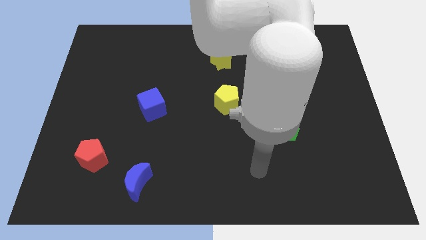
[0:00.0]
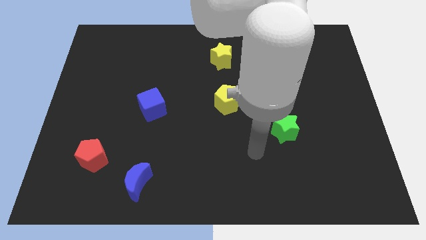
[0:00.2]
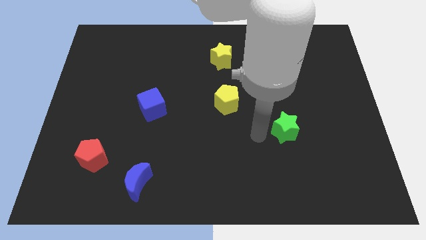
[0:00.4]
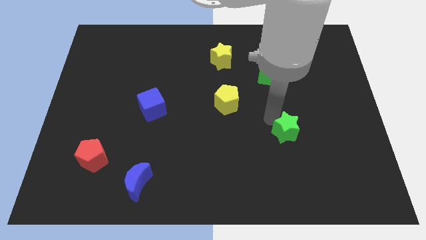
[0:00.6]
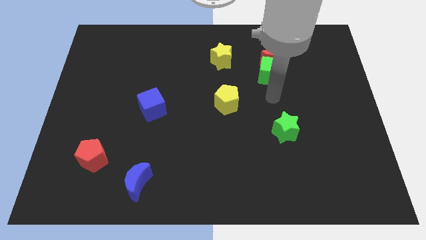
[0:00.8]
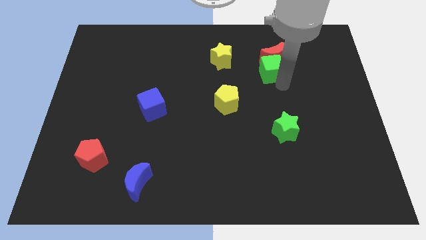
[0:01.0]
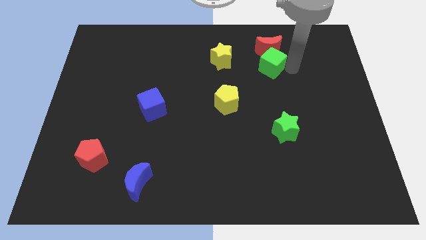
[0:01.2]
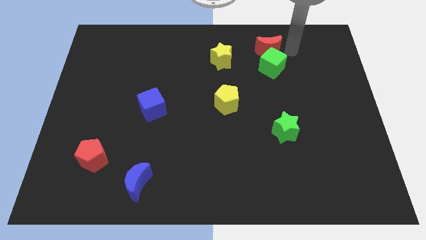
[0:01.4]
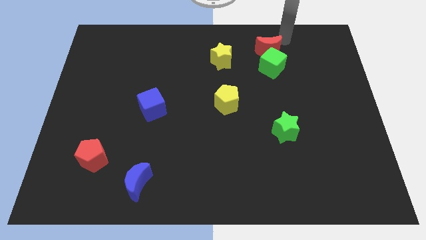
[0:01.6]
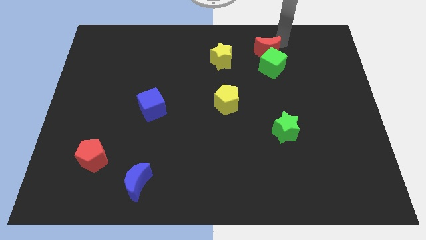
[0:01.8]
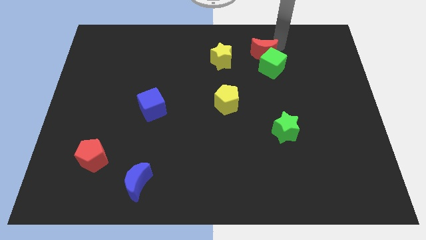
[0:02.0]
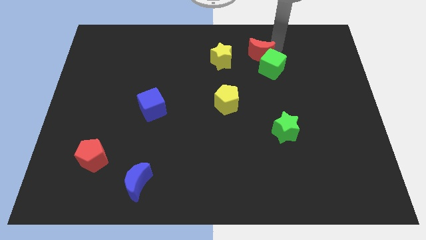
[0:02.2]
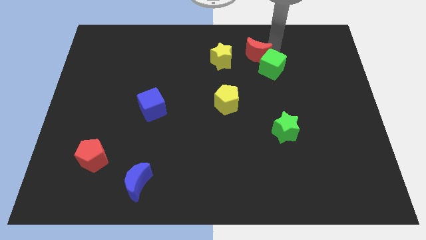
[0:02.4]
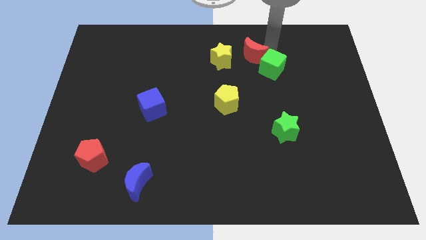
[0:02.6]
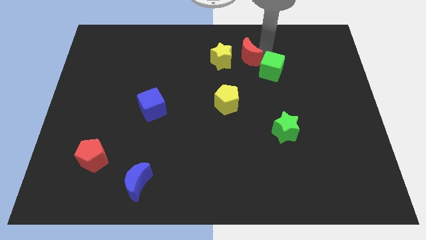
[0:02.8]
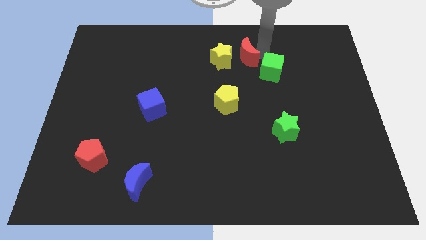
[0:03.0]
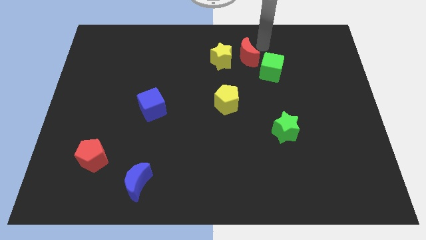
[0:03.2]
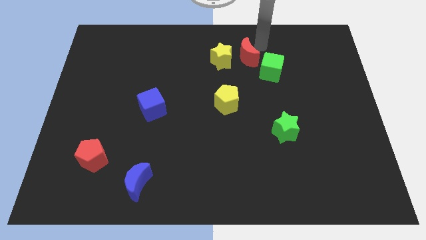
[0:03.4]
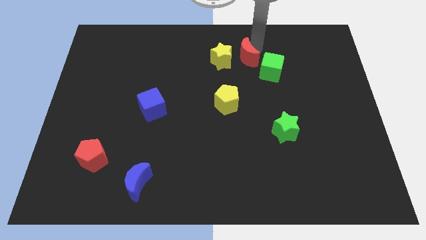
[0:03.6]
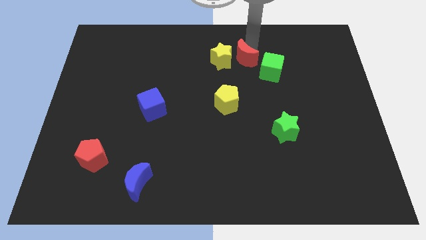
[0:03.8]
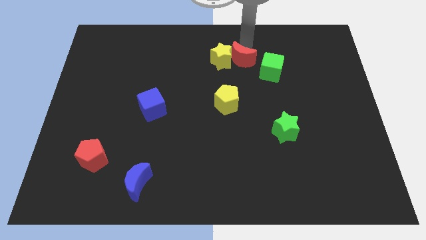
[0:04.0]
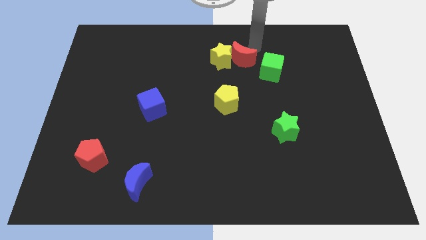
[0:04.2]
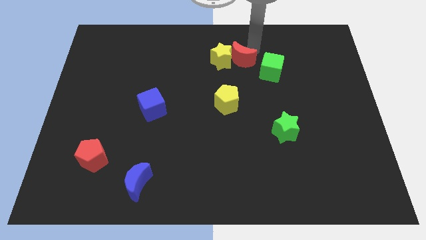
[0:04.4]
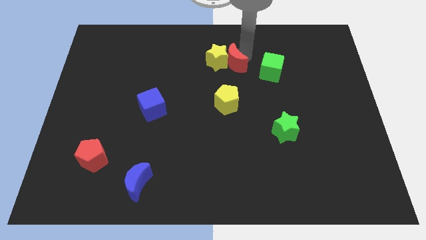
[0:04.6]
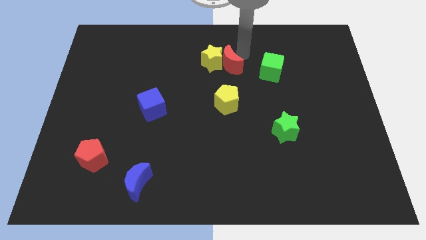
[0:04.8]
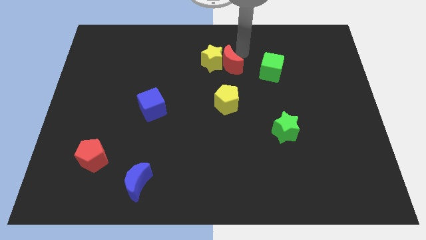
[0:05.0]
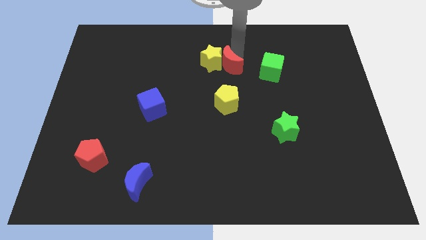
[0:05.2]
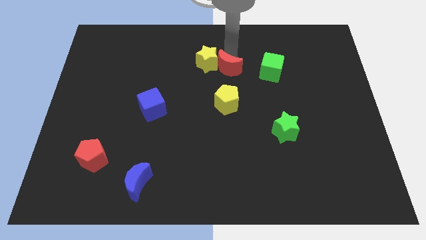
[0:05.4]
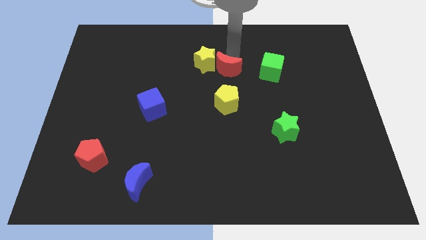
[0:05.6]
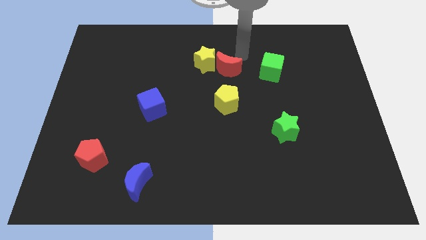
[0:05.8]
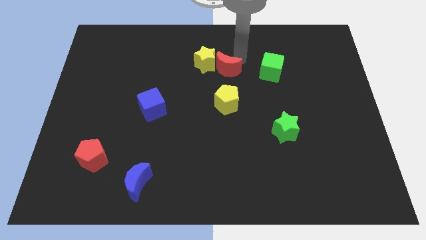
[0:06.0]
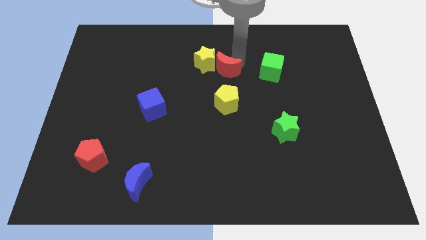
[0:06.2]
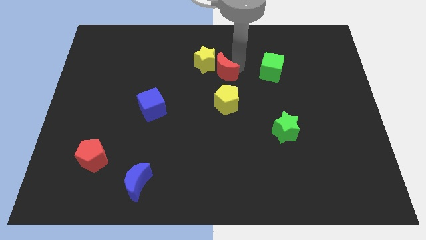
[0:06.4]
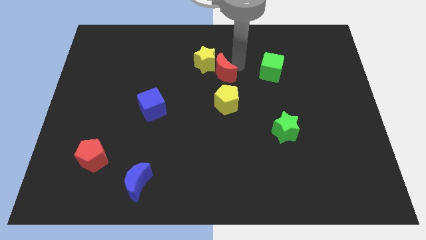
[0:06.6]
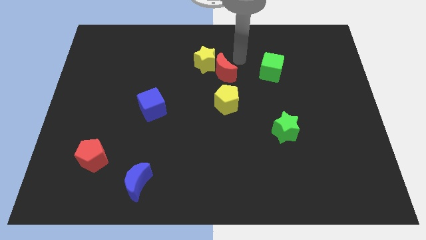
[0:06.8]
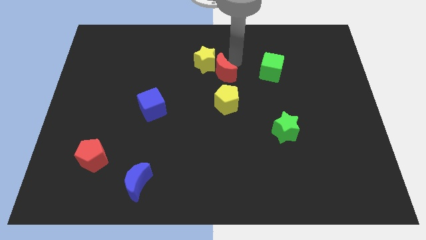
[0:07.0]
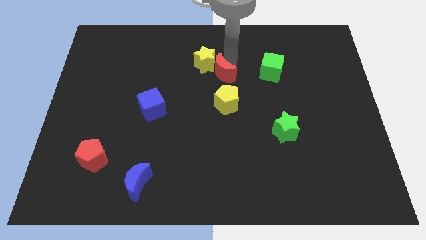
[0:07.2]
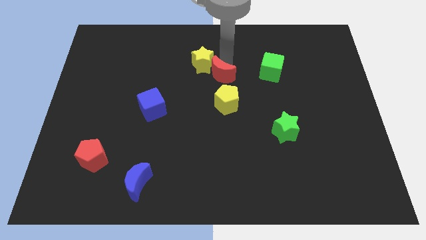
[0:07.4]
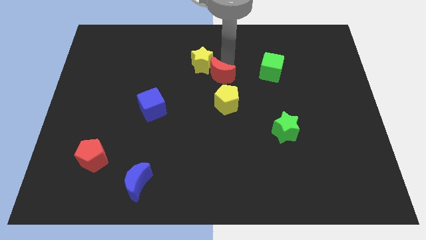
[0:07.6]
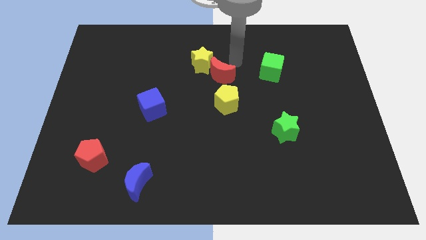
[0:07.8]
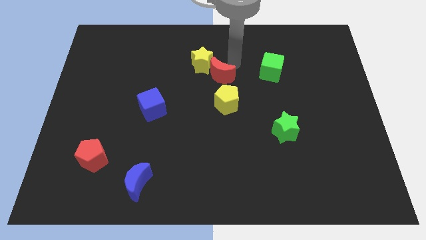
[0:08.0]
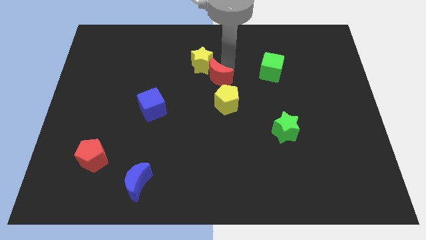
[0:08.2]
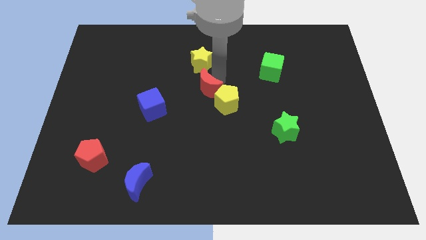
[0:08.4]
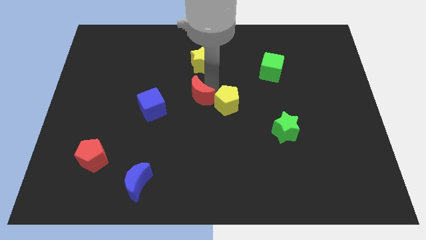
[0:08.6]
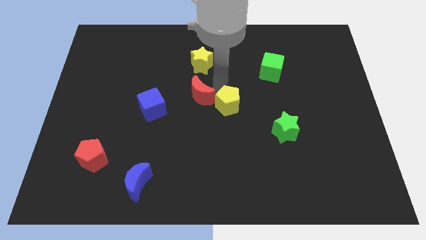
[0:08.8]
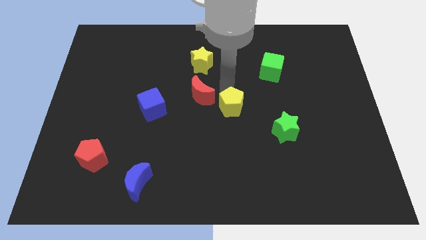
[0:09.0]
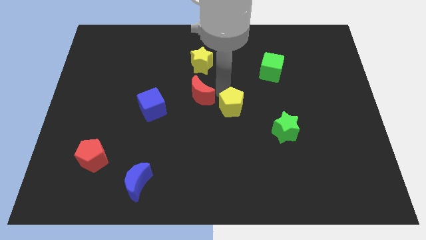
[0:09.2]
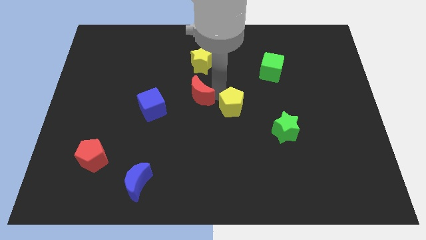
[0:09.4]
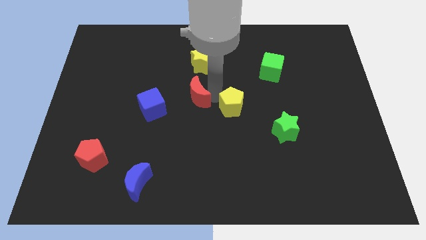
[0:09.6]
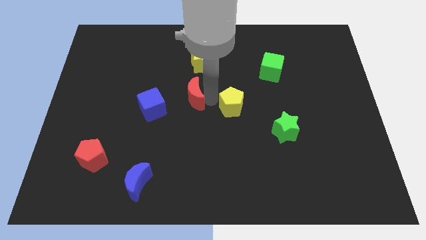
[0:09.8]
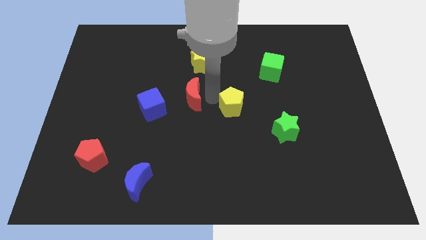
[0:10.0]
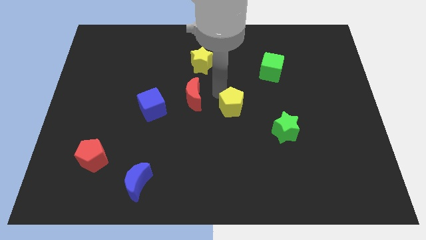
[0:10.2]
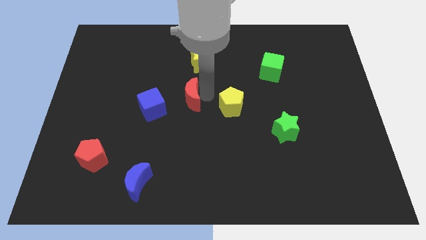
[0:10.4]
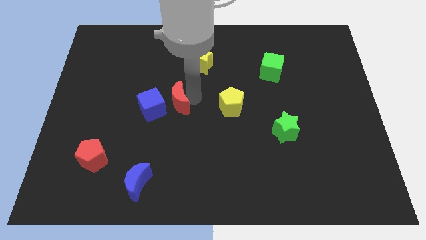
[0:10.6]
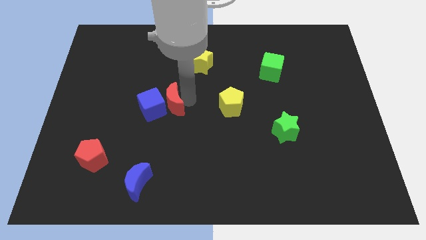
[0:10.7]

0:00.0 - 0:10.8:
put the red moon to the blue cube

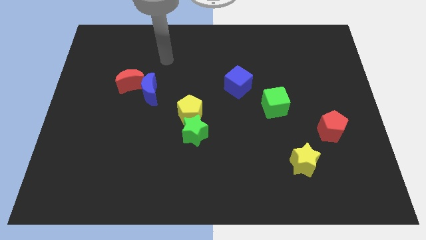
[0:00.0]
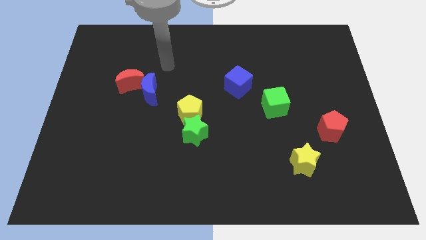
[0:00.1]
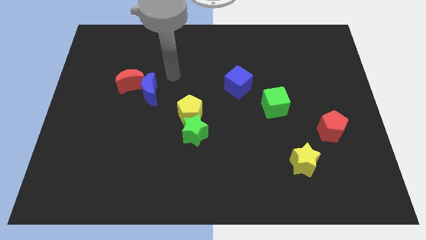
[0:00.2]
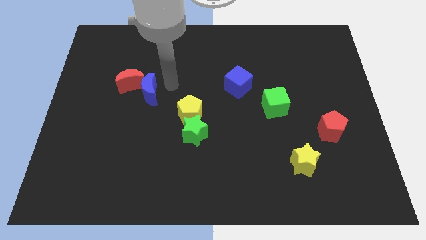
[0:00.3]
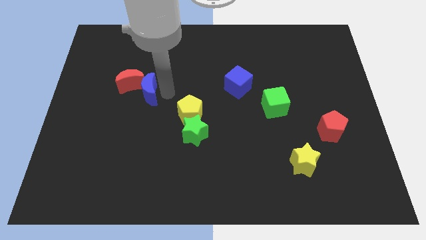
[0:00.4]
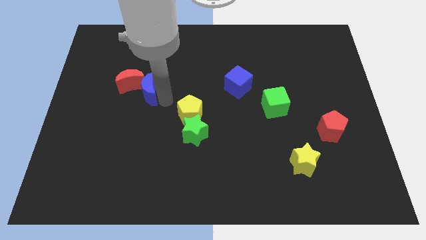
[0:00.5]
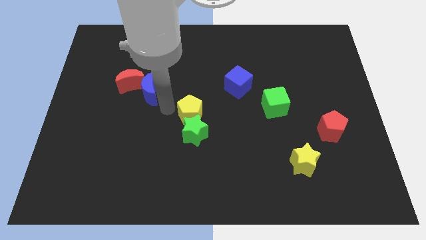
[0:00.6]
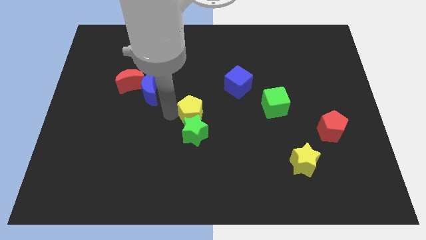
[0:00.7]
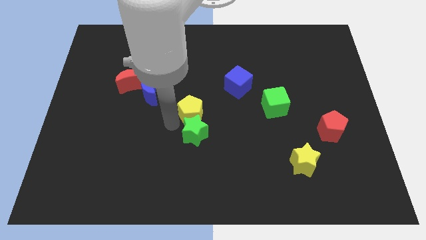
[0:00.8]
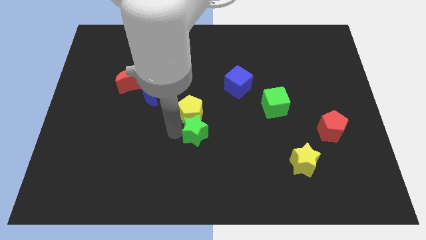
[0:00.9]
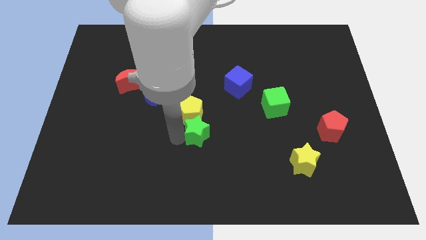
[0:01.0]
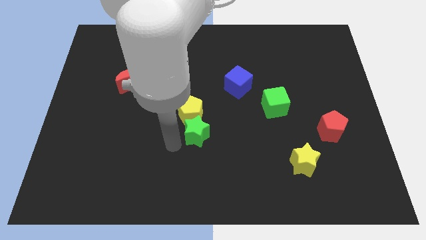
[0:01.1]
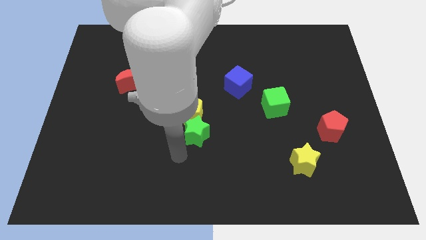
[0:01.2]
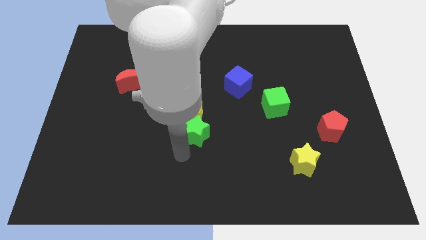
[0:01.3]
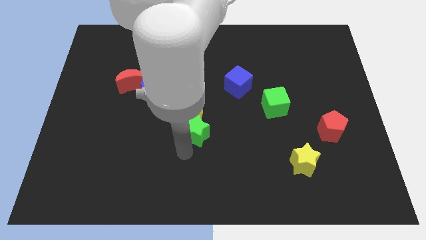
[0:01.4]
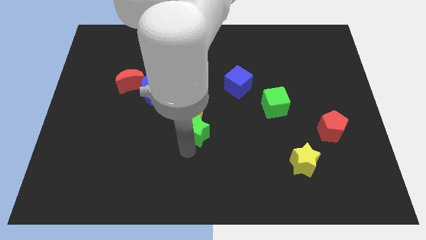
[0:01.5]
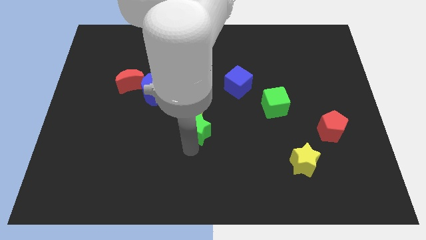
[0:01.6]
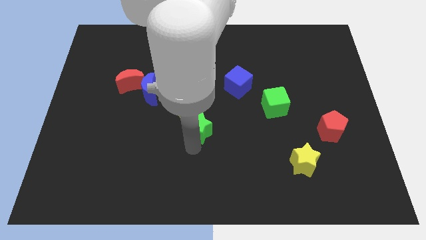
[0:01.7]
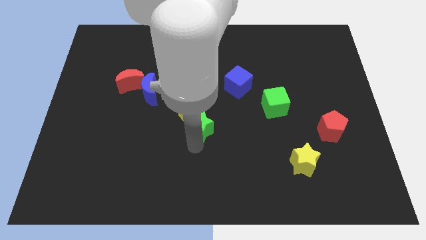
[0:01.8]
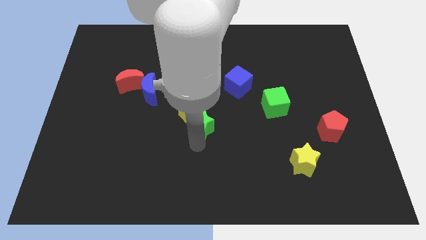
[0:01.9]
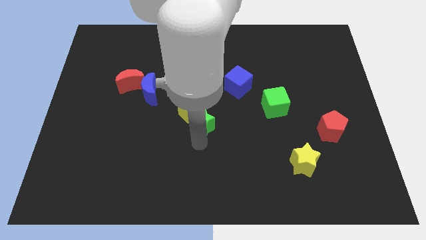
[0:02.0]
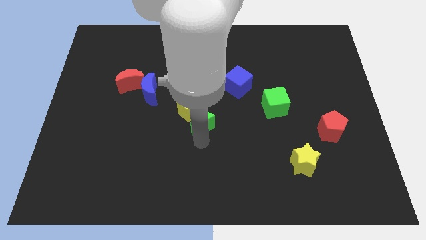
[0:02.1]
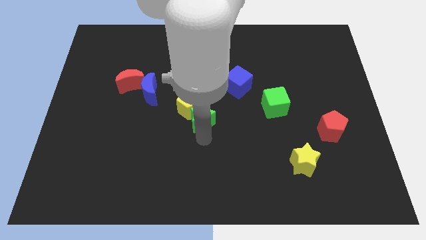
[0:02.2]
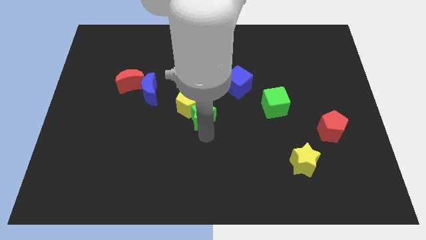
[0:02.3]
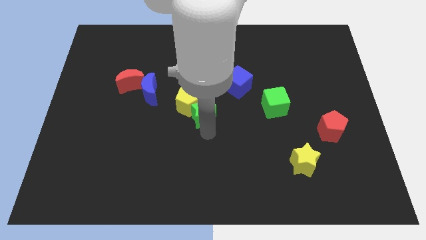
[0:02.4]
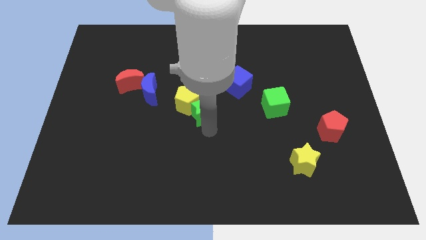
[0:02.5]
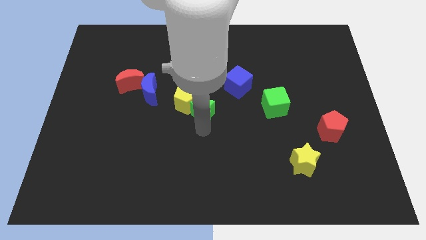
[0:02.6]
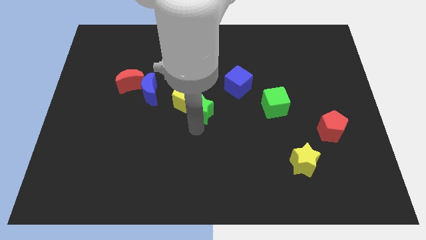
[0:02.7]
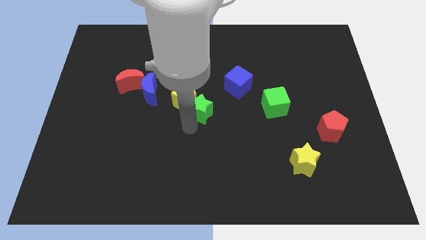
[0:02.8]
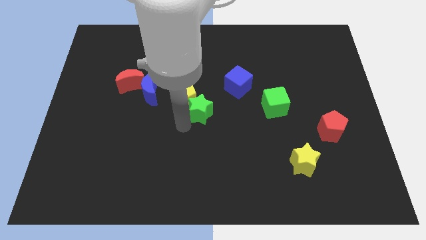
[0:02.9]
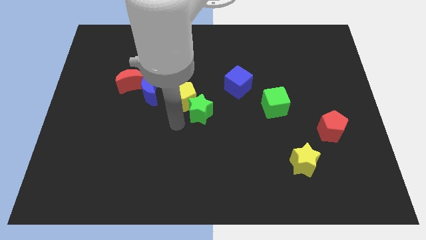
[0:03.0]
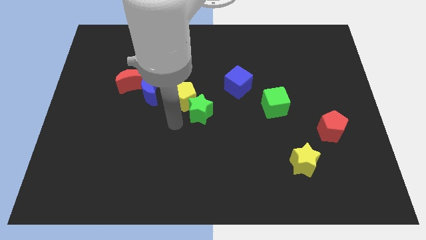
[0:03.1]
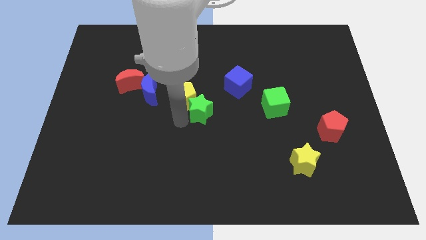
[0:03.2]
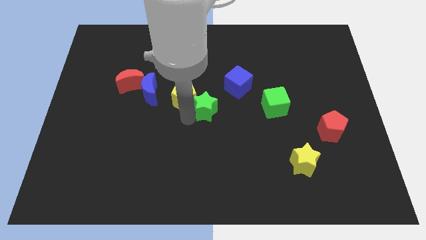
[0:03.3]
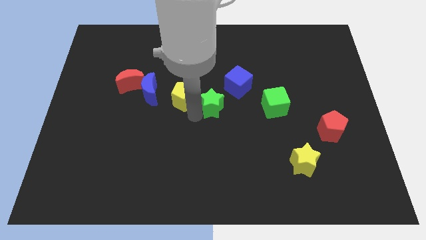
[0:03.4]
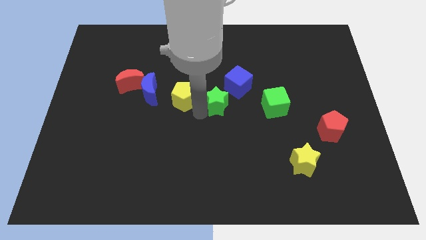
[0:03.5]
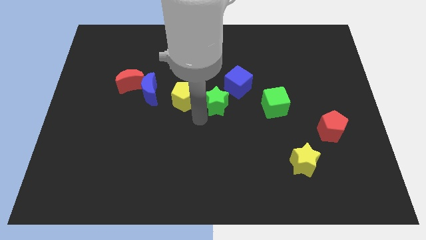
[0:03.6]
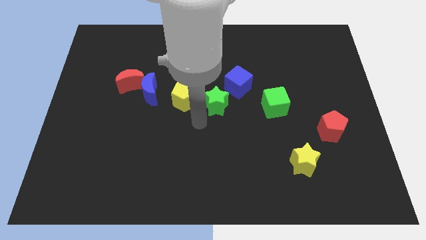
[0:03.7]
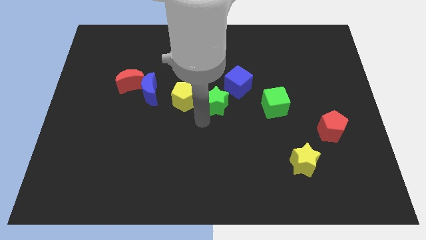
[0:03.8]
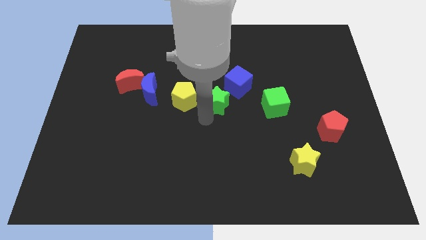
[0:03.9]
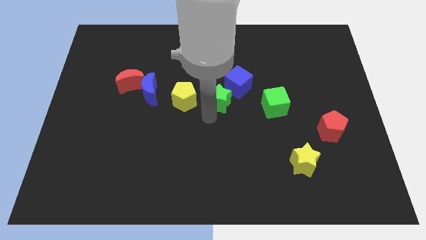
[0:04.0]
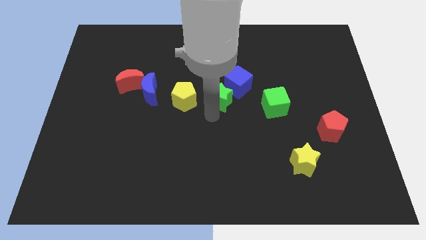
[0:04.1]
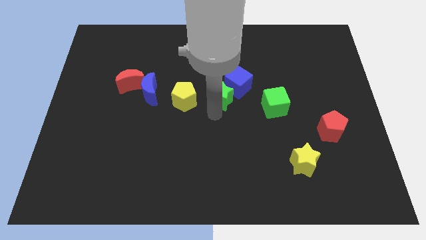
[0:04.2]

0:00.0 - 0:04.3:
put the green star close to the blue cube
